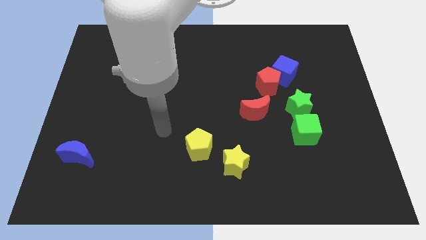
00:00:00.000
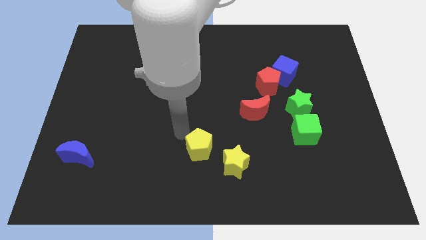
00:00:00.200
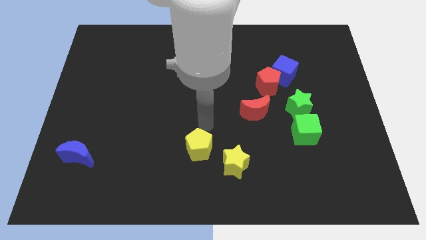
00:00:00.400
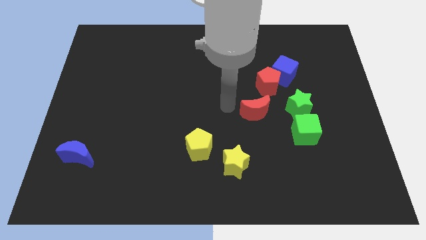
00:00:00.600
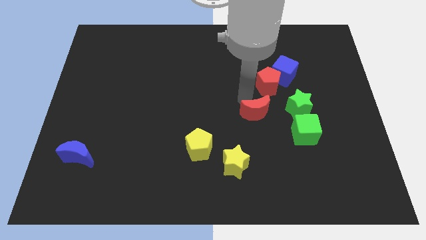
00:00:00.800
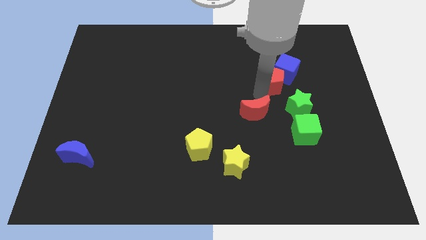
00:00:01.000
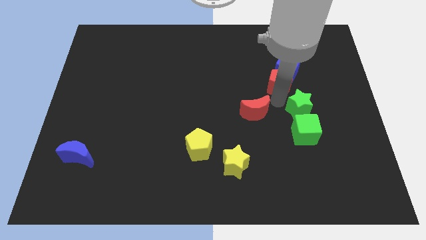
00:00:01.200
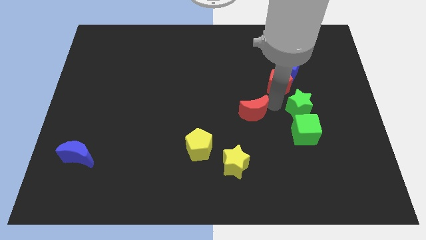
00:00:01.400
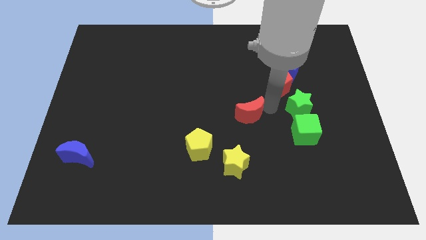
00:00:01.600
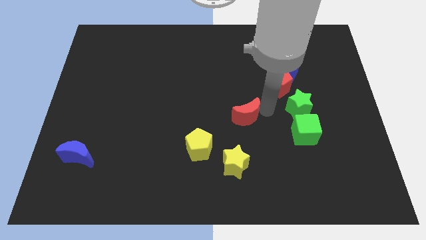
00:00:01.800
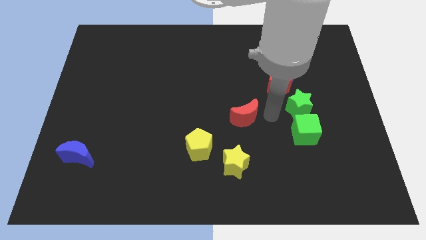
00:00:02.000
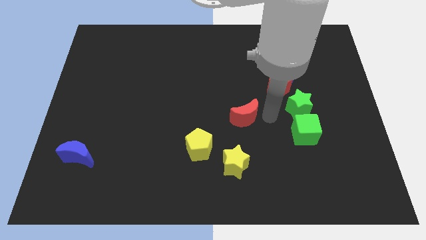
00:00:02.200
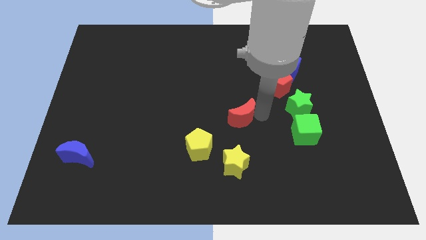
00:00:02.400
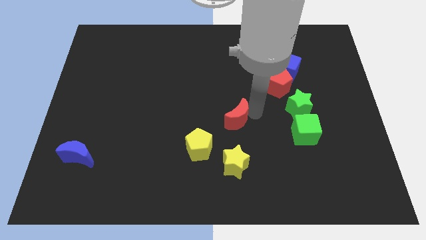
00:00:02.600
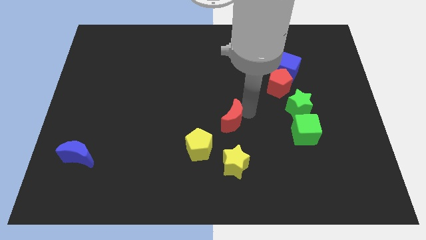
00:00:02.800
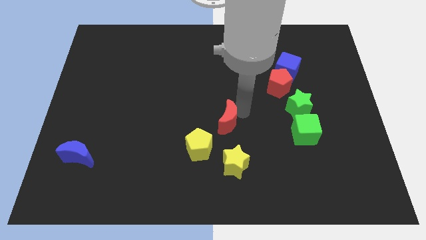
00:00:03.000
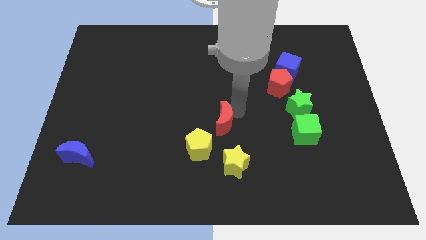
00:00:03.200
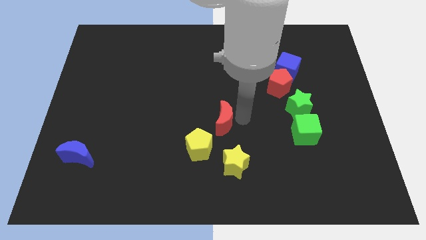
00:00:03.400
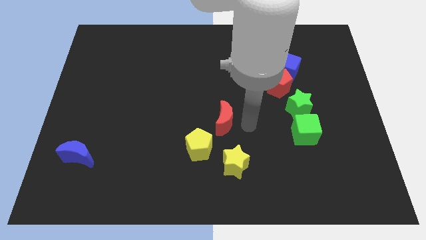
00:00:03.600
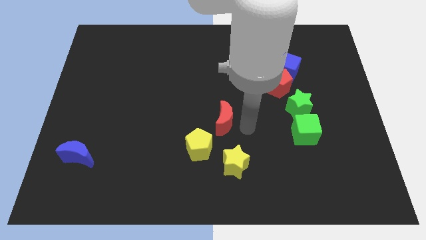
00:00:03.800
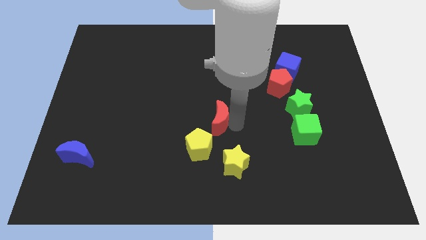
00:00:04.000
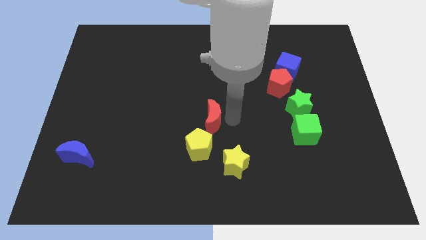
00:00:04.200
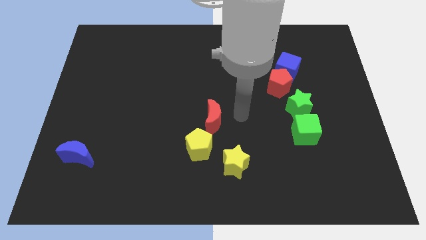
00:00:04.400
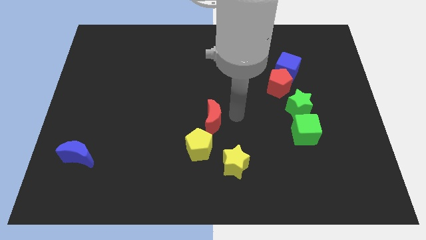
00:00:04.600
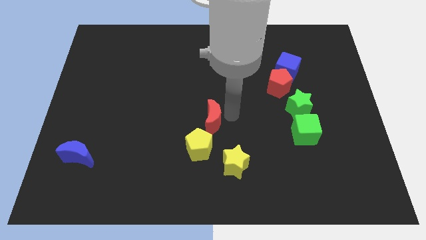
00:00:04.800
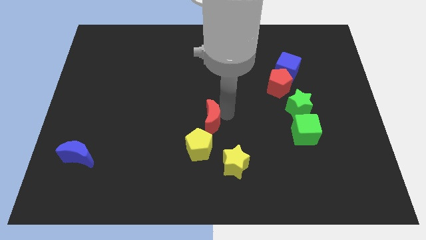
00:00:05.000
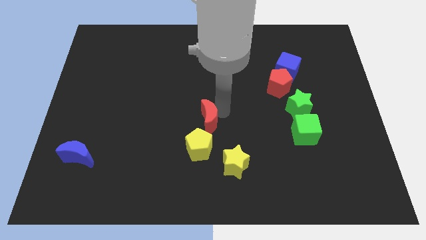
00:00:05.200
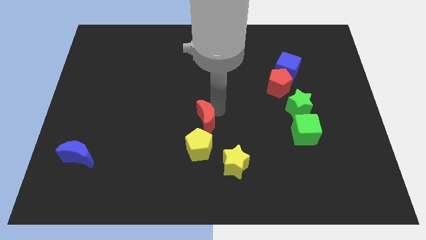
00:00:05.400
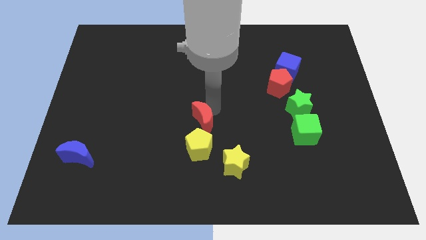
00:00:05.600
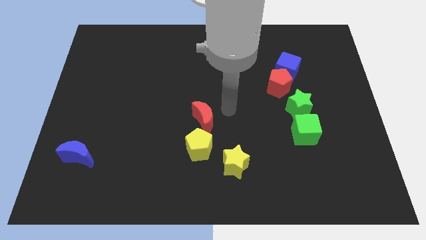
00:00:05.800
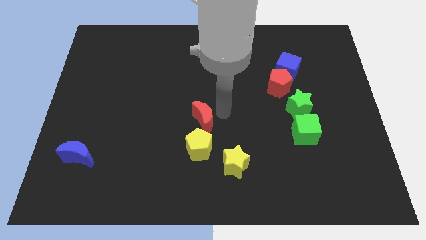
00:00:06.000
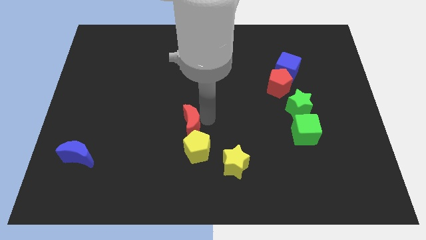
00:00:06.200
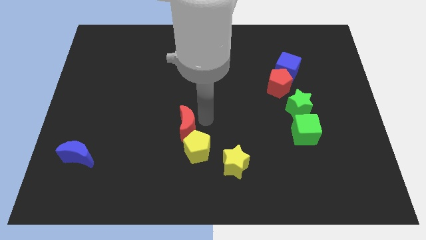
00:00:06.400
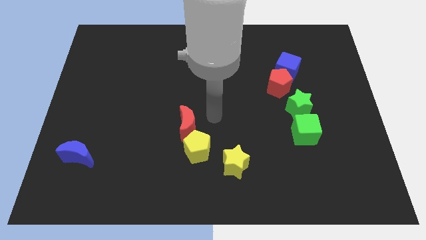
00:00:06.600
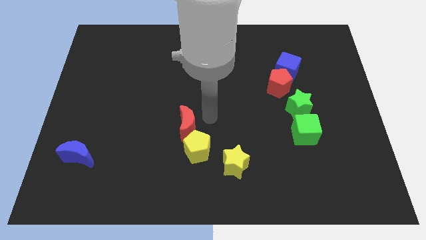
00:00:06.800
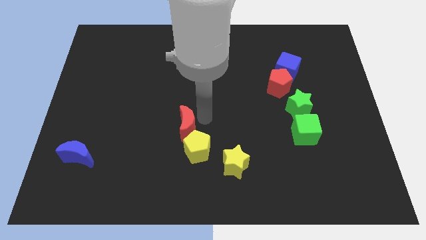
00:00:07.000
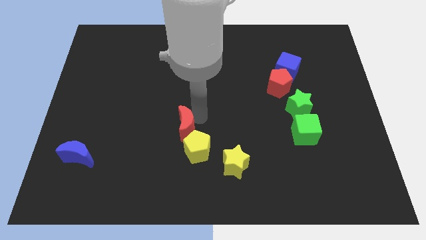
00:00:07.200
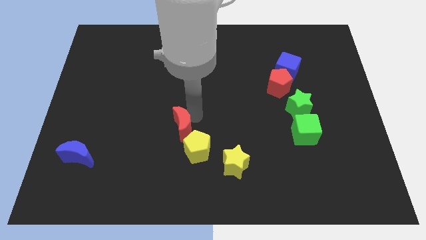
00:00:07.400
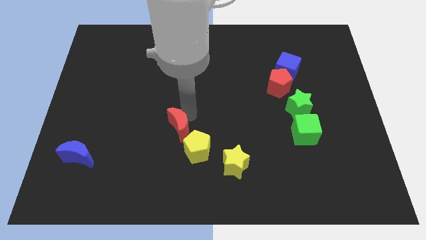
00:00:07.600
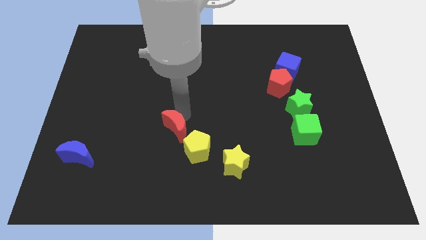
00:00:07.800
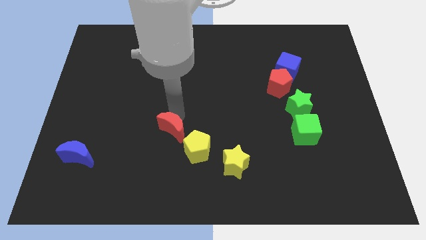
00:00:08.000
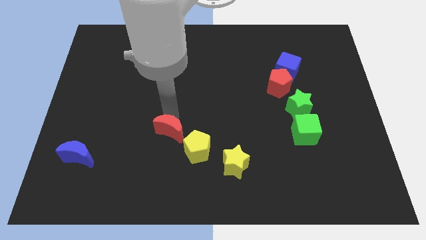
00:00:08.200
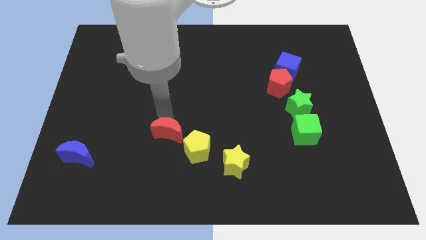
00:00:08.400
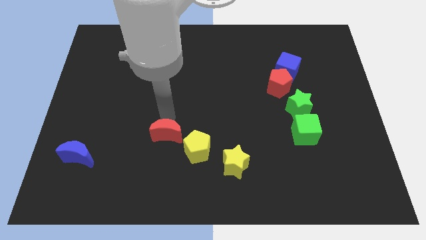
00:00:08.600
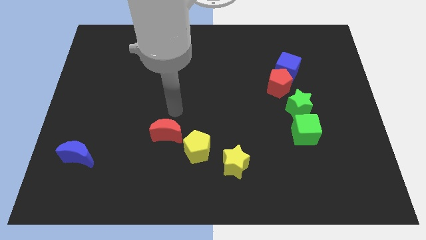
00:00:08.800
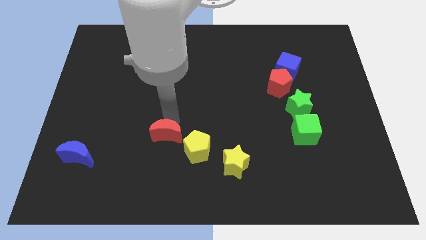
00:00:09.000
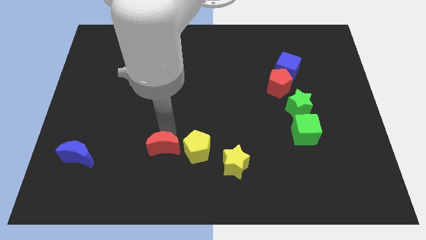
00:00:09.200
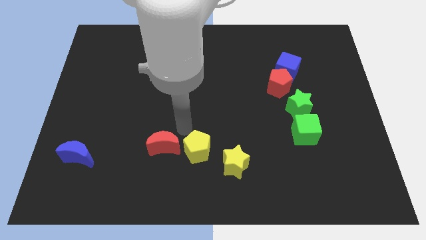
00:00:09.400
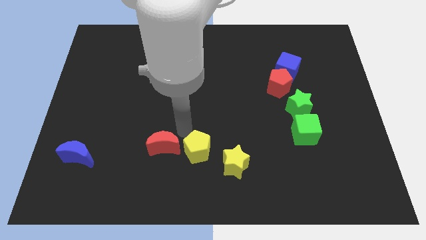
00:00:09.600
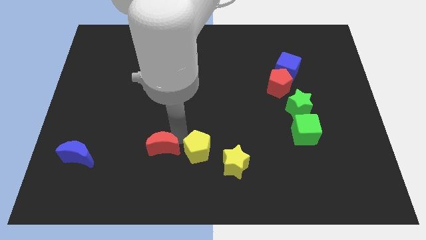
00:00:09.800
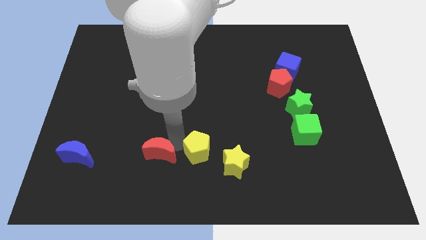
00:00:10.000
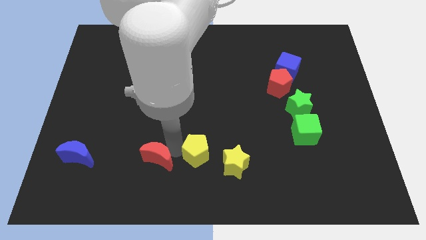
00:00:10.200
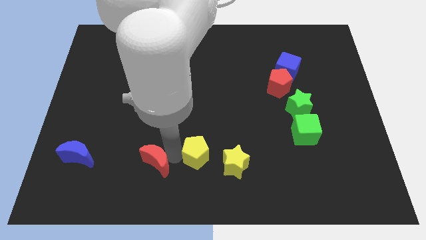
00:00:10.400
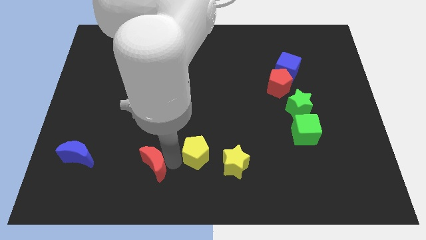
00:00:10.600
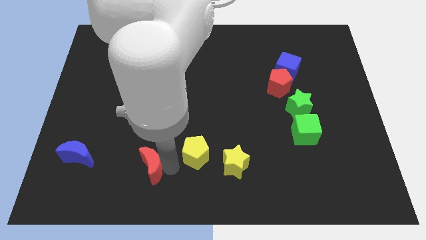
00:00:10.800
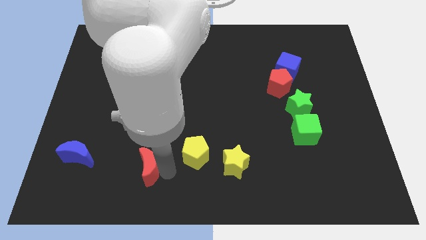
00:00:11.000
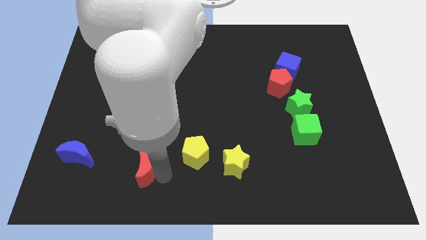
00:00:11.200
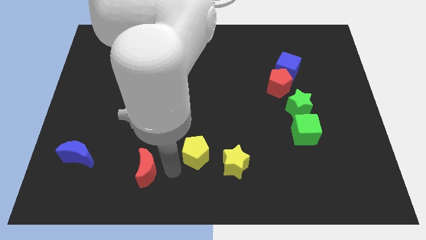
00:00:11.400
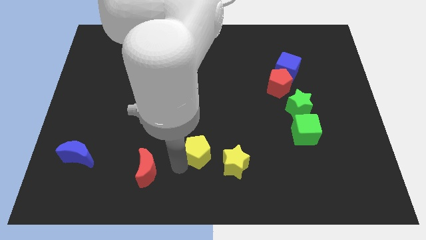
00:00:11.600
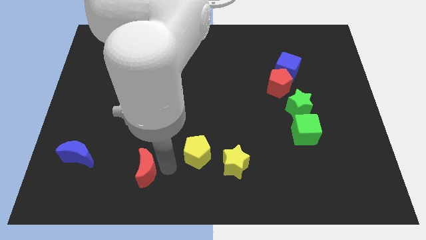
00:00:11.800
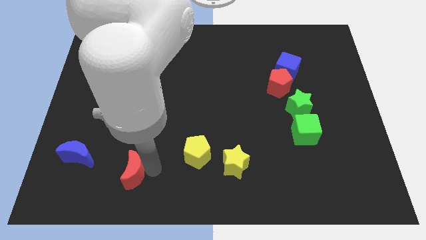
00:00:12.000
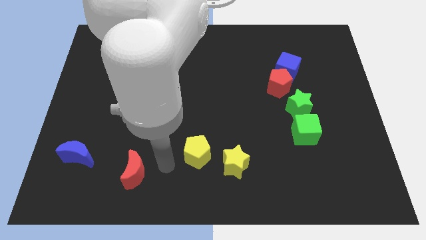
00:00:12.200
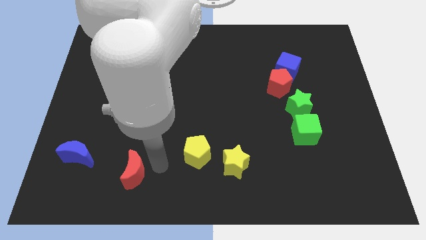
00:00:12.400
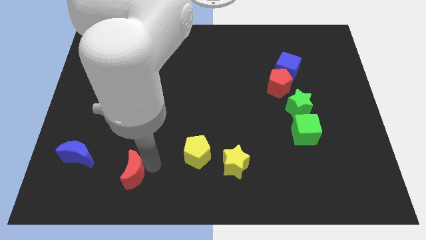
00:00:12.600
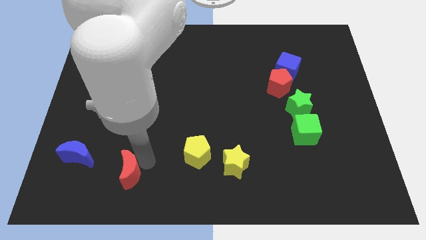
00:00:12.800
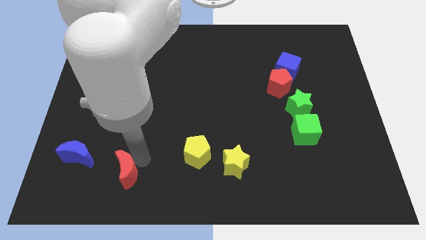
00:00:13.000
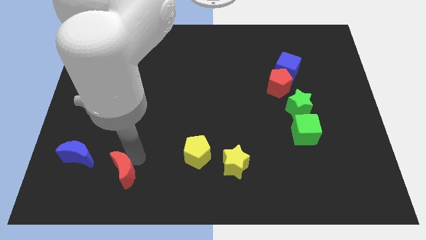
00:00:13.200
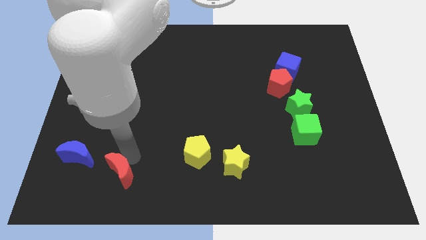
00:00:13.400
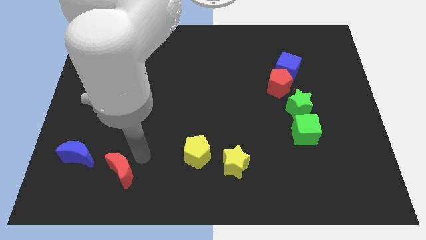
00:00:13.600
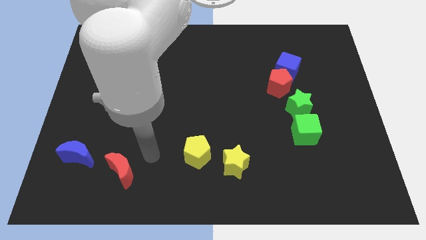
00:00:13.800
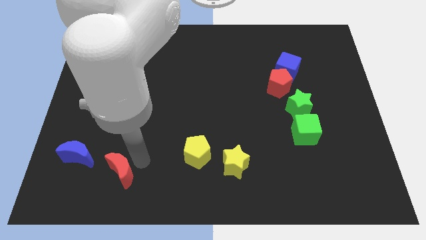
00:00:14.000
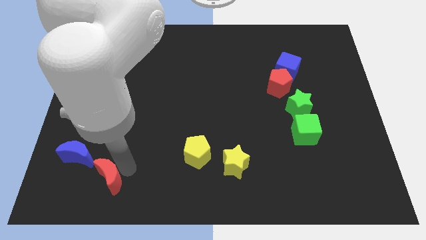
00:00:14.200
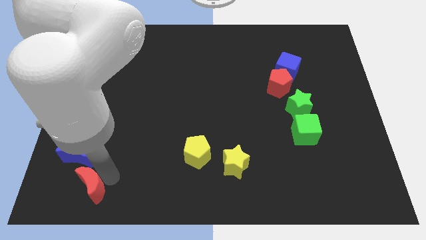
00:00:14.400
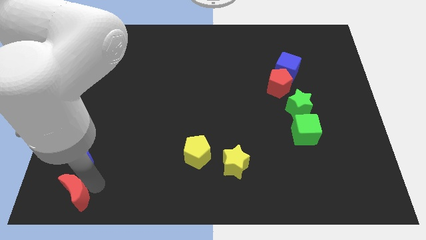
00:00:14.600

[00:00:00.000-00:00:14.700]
put the red moon to the bottom left of the board
